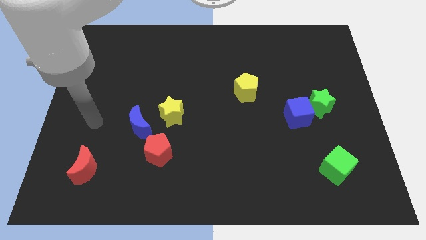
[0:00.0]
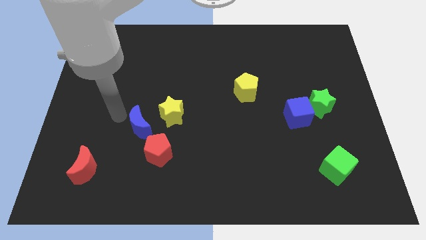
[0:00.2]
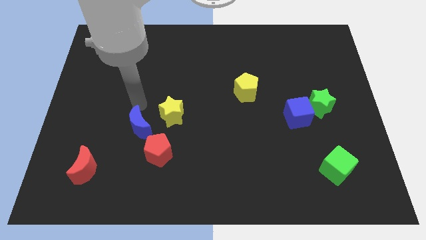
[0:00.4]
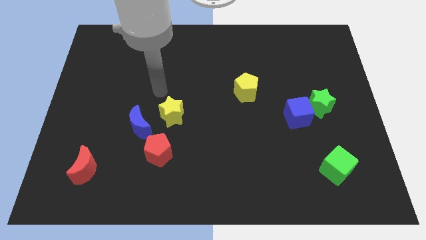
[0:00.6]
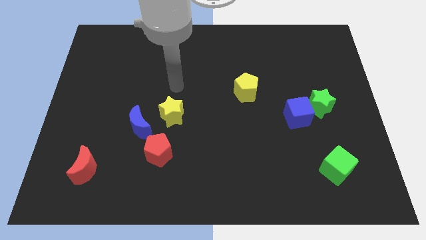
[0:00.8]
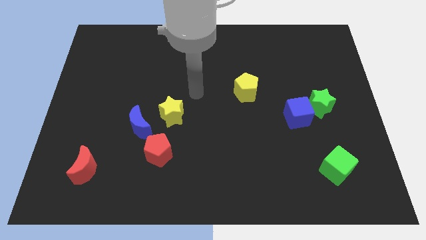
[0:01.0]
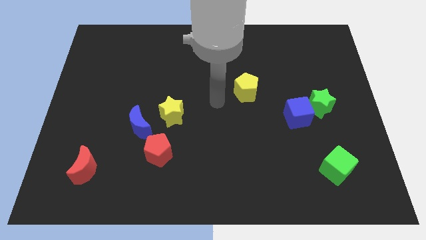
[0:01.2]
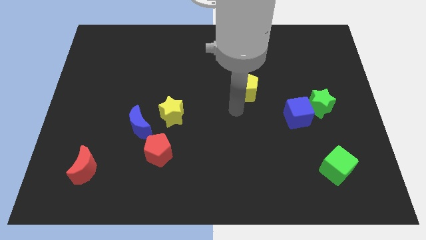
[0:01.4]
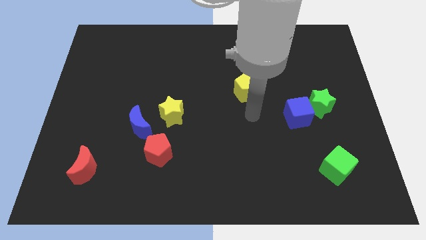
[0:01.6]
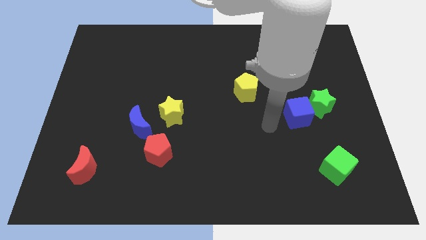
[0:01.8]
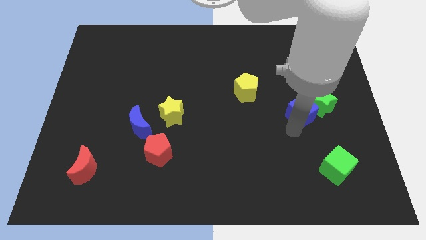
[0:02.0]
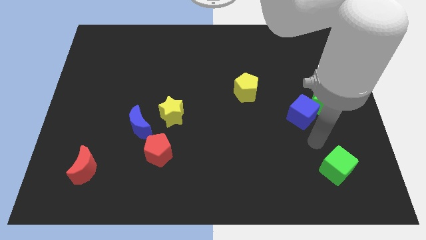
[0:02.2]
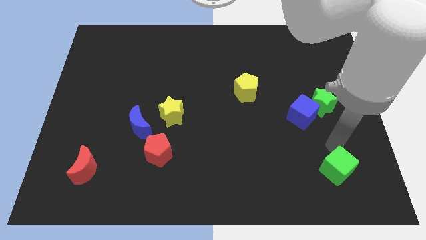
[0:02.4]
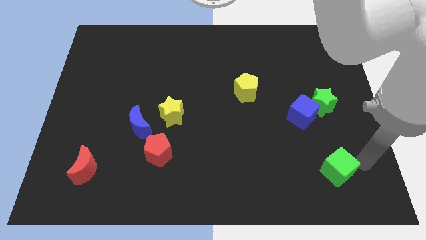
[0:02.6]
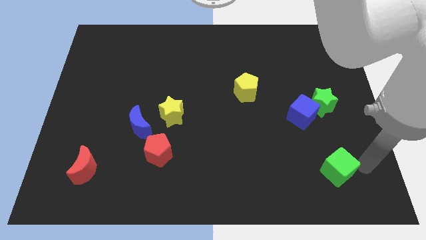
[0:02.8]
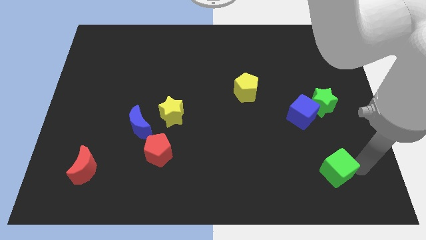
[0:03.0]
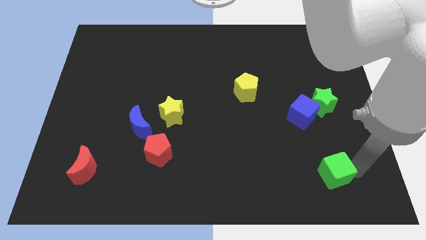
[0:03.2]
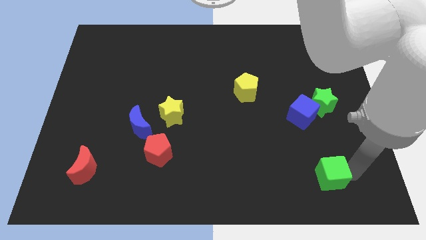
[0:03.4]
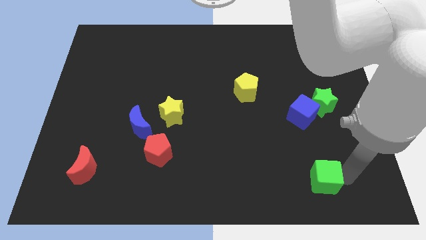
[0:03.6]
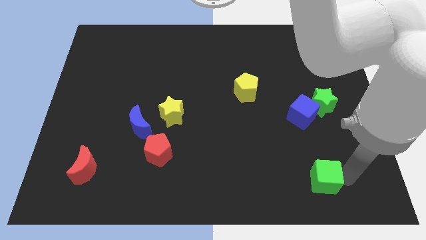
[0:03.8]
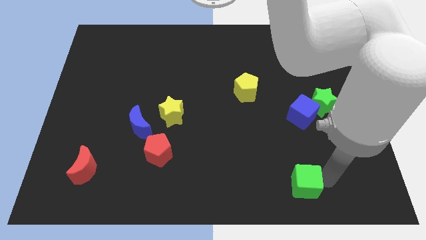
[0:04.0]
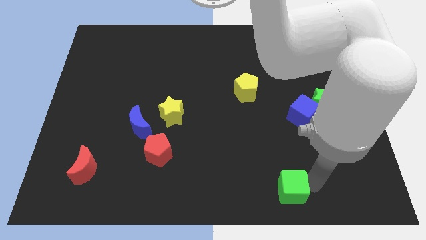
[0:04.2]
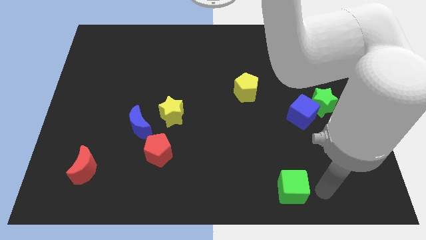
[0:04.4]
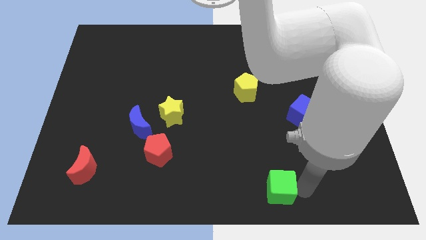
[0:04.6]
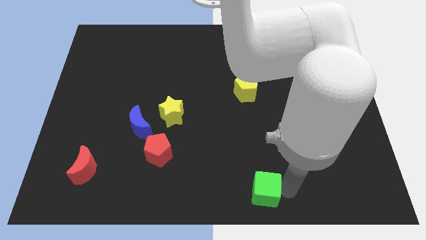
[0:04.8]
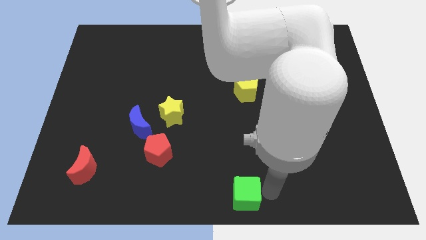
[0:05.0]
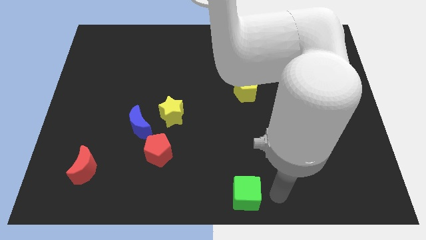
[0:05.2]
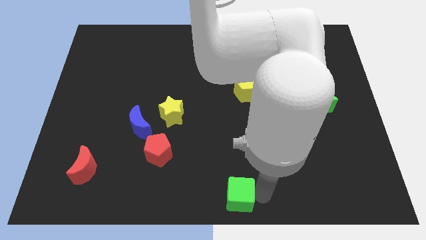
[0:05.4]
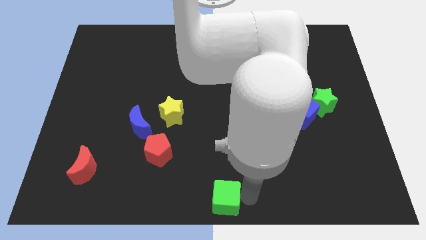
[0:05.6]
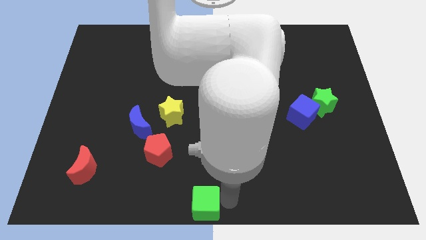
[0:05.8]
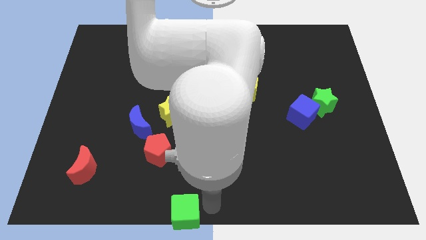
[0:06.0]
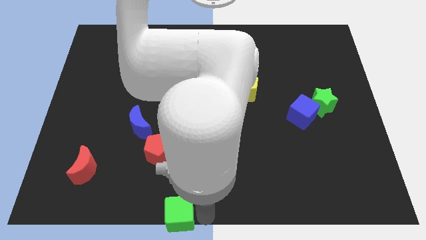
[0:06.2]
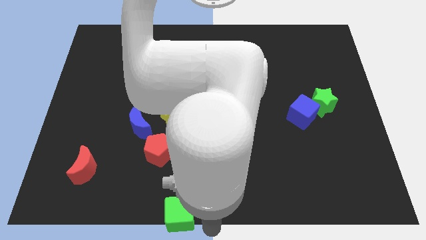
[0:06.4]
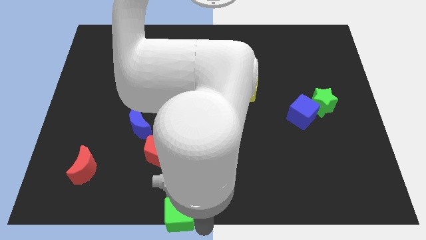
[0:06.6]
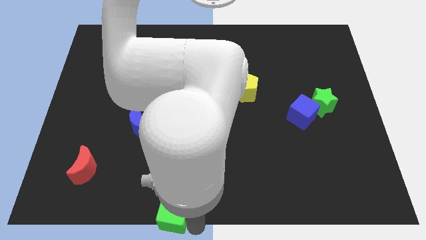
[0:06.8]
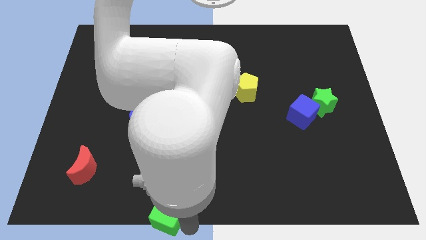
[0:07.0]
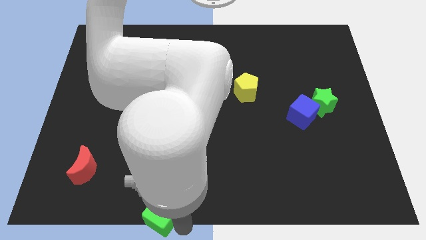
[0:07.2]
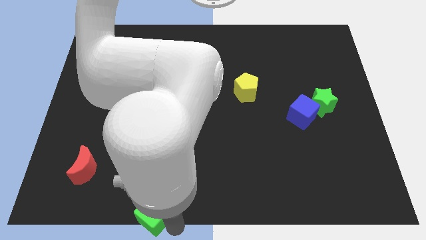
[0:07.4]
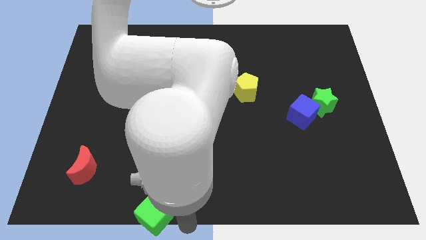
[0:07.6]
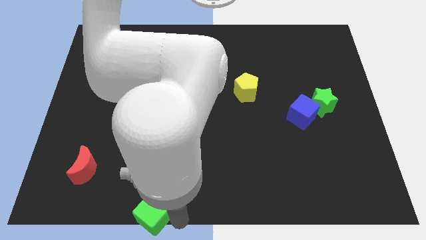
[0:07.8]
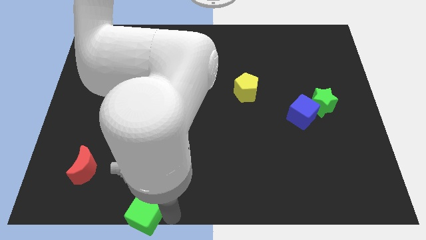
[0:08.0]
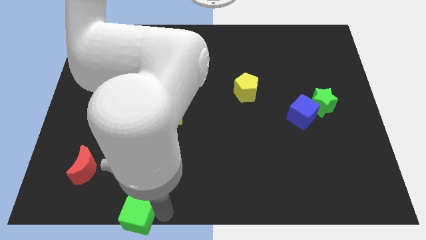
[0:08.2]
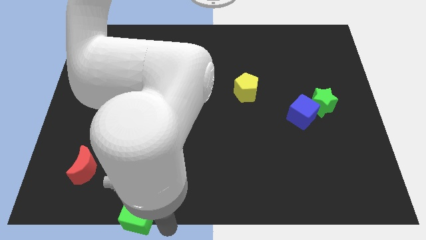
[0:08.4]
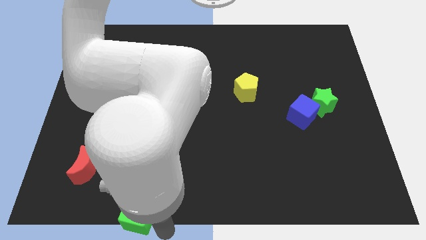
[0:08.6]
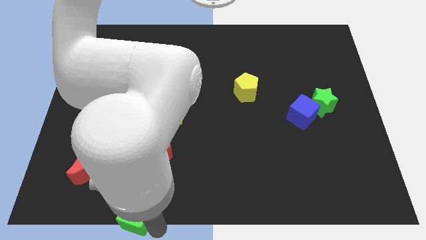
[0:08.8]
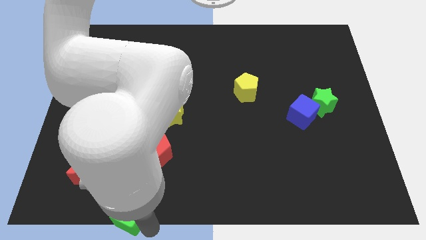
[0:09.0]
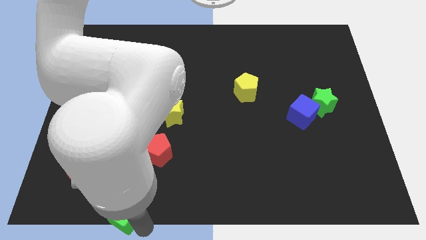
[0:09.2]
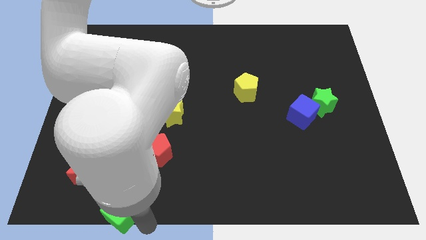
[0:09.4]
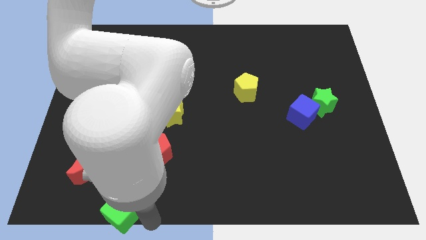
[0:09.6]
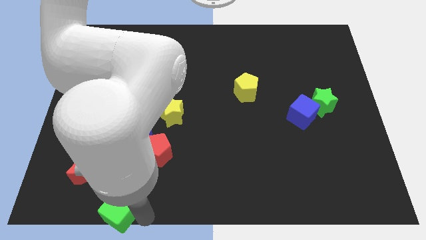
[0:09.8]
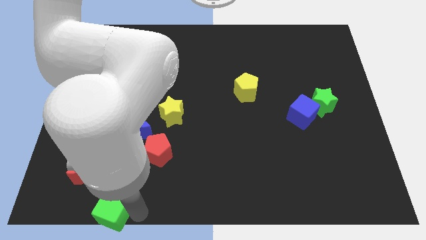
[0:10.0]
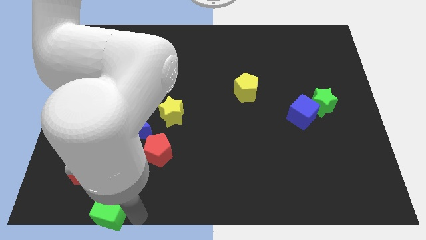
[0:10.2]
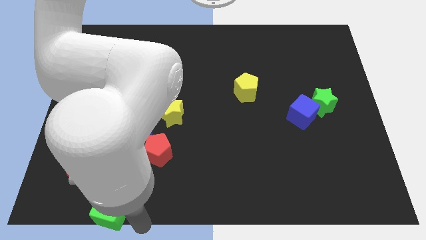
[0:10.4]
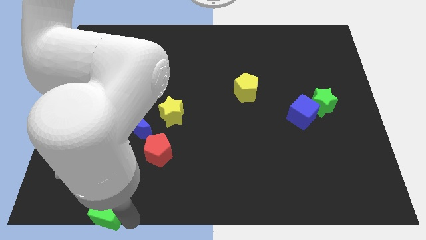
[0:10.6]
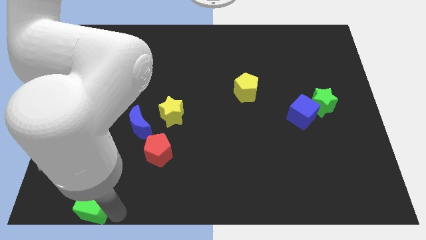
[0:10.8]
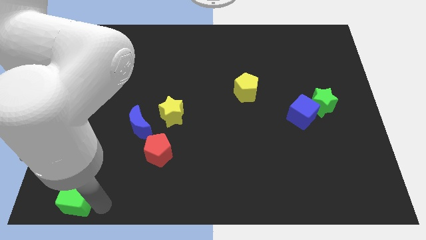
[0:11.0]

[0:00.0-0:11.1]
put the green cube to the bottom left corner
